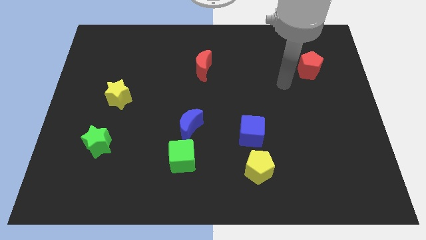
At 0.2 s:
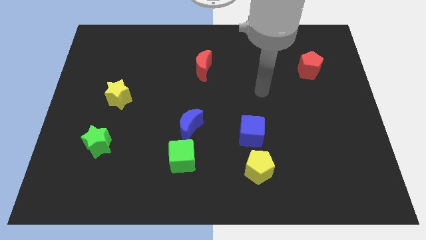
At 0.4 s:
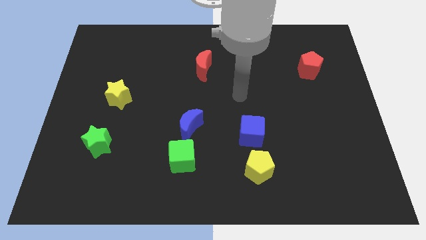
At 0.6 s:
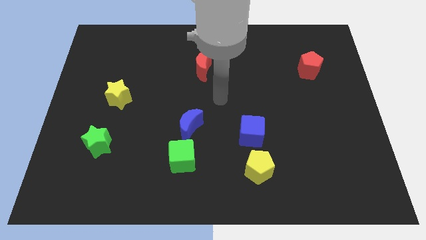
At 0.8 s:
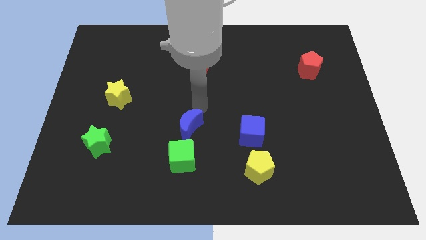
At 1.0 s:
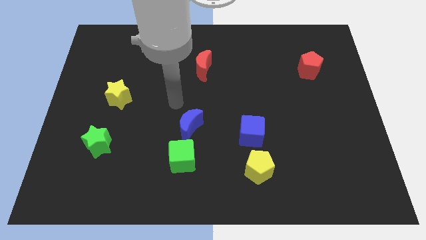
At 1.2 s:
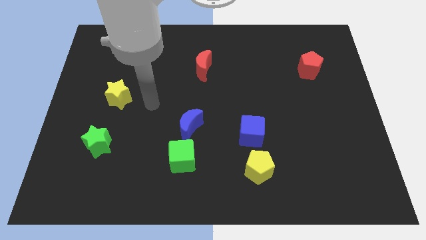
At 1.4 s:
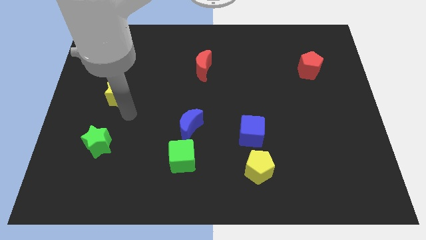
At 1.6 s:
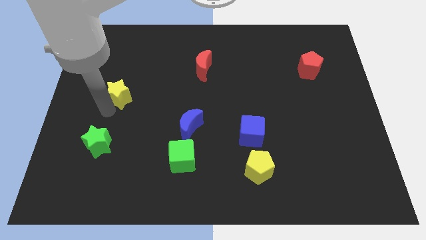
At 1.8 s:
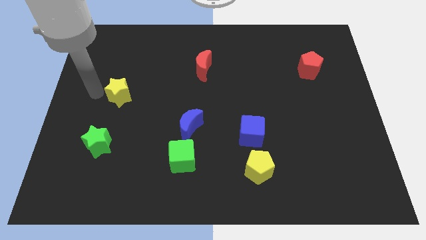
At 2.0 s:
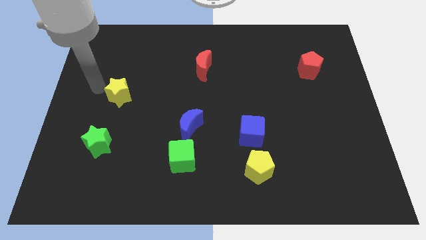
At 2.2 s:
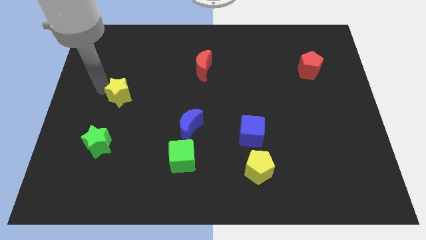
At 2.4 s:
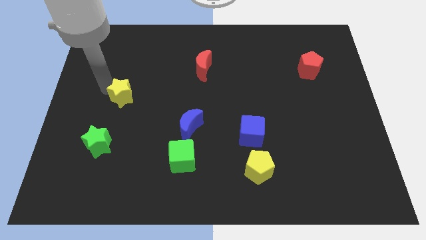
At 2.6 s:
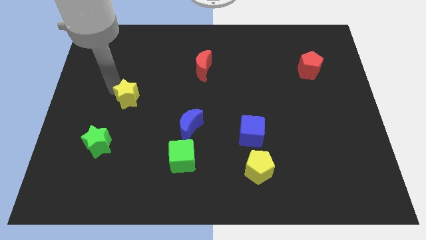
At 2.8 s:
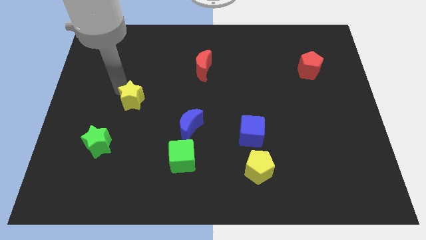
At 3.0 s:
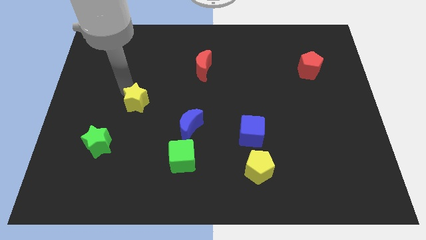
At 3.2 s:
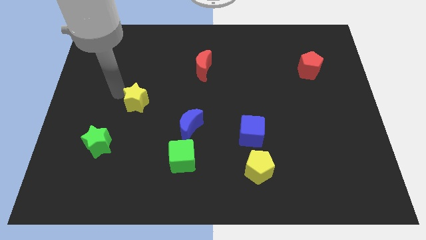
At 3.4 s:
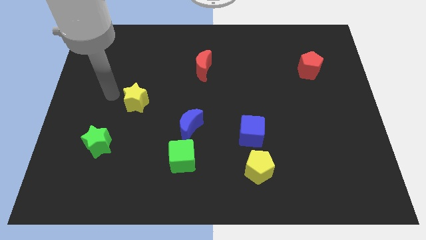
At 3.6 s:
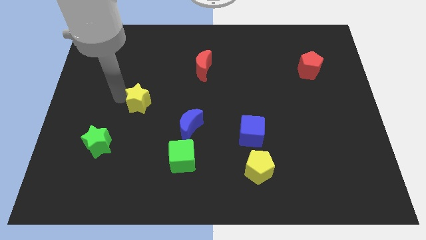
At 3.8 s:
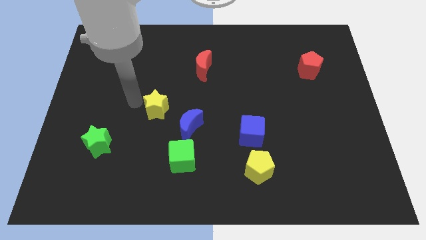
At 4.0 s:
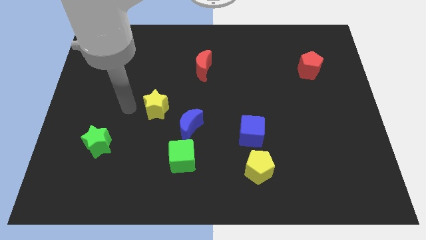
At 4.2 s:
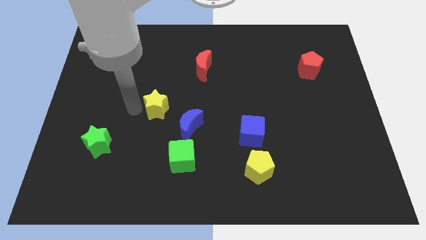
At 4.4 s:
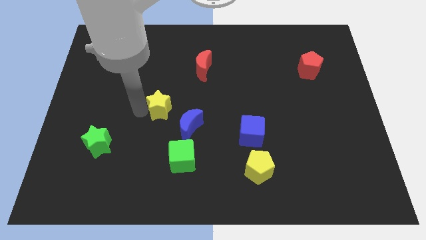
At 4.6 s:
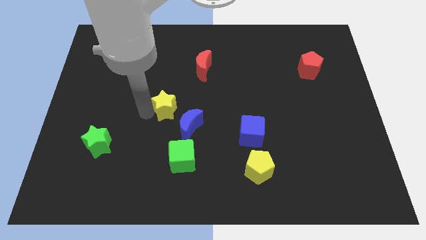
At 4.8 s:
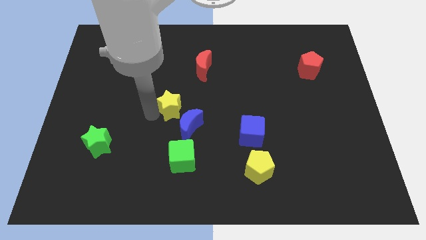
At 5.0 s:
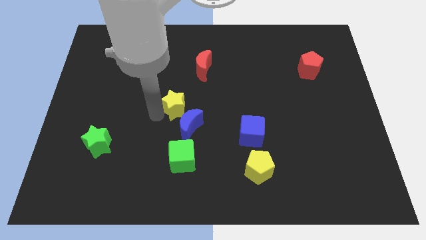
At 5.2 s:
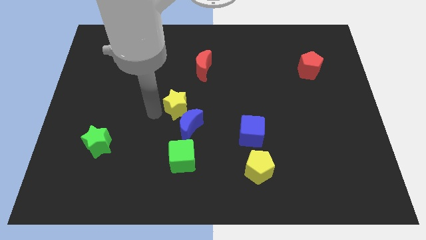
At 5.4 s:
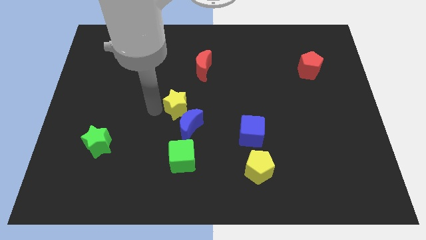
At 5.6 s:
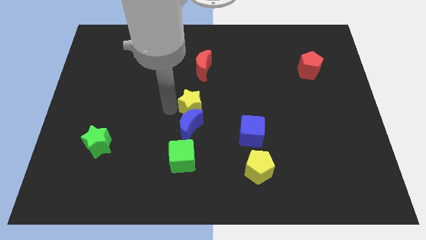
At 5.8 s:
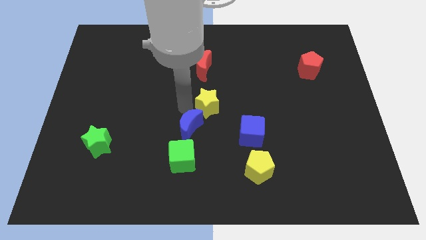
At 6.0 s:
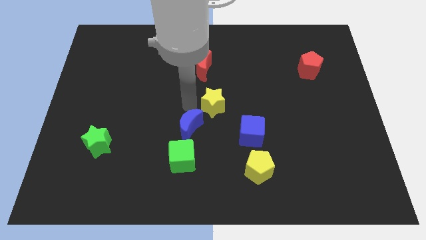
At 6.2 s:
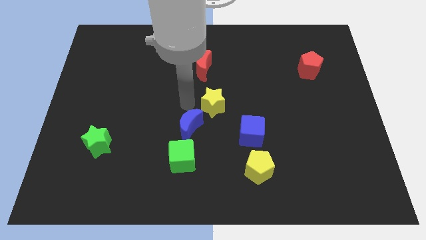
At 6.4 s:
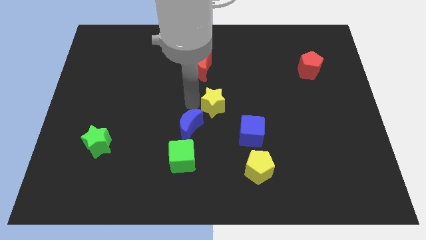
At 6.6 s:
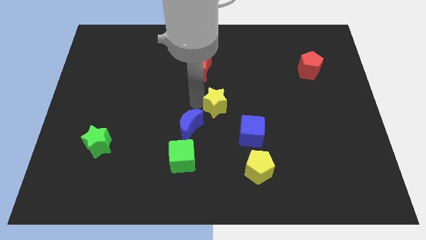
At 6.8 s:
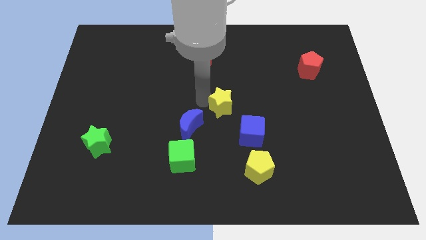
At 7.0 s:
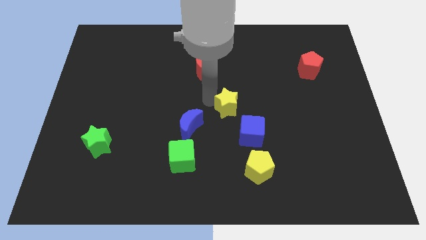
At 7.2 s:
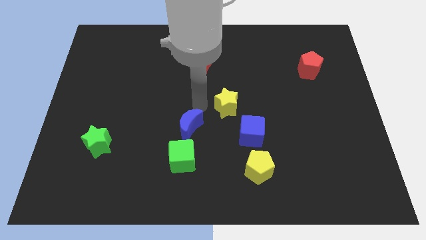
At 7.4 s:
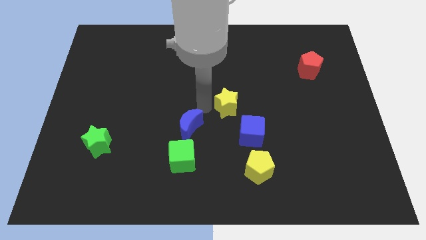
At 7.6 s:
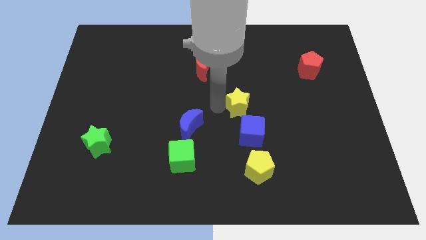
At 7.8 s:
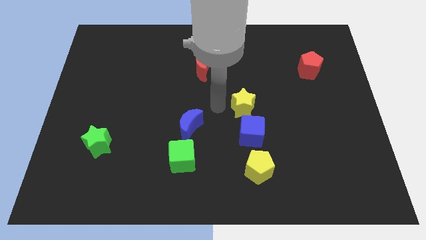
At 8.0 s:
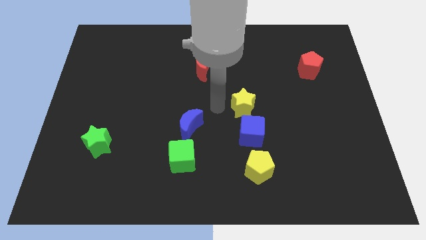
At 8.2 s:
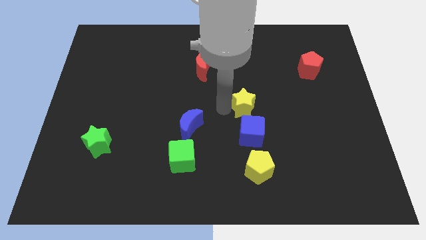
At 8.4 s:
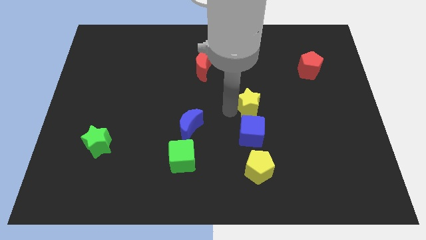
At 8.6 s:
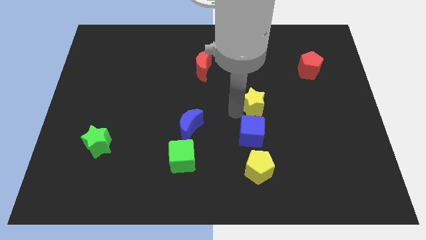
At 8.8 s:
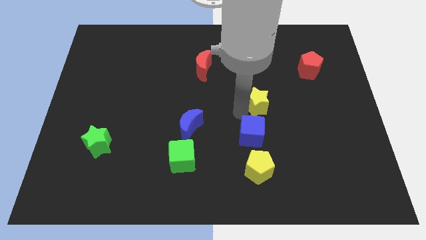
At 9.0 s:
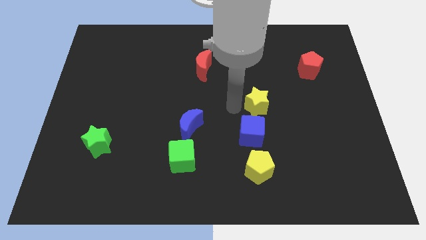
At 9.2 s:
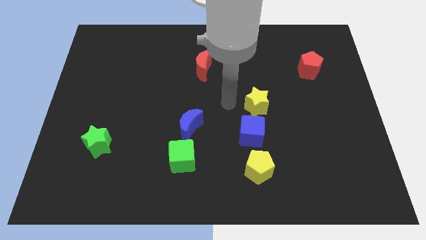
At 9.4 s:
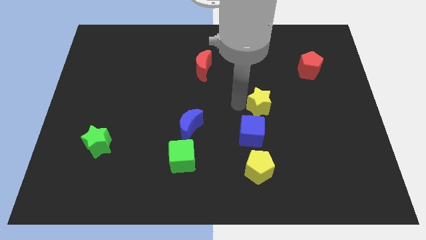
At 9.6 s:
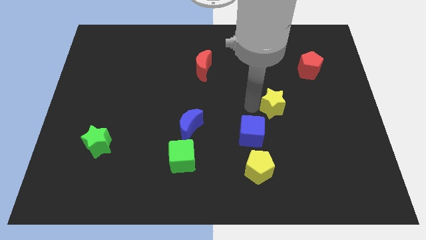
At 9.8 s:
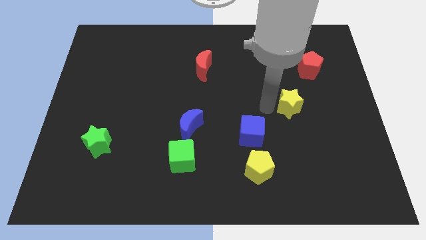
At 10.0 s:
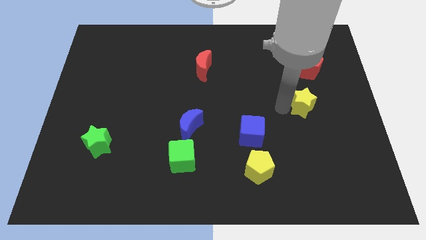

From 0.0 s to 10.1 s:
push the yellow star below the red pentagon

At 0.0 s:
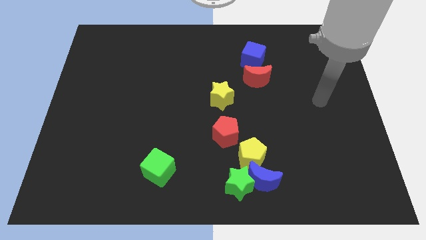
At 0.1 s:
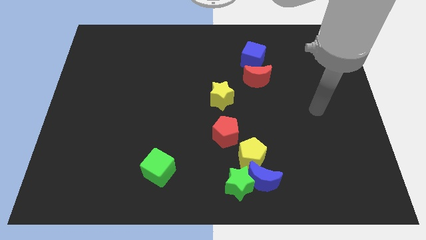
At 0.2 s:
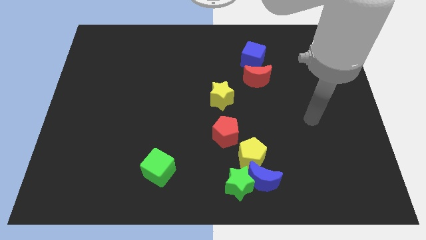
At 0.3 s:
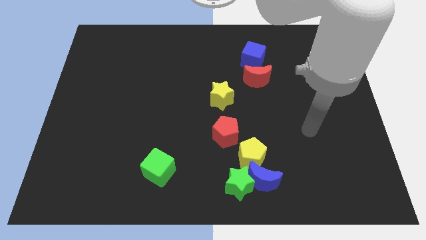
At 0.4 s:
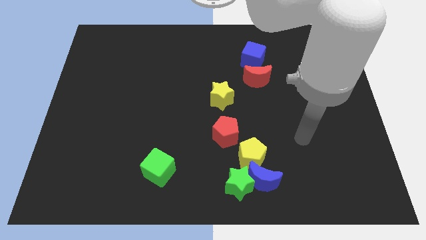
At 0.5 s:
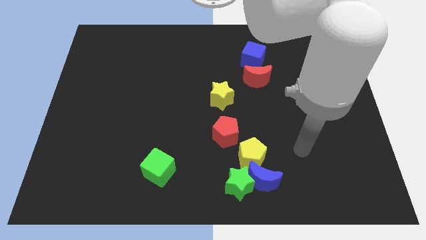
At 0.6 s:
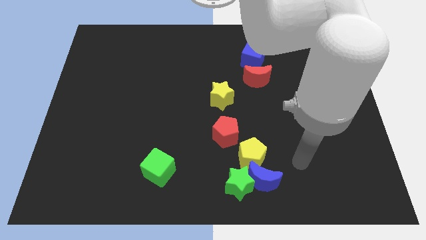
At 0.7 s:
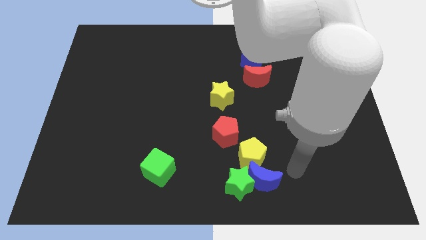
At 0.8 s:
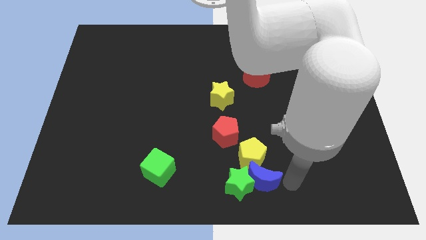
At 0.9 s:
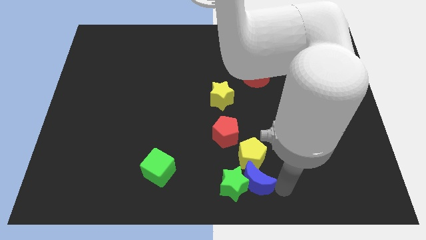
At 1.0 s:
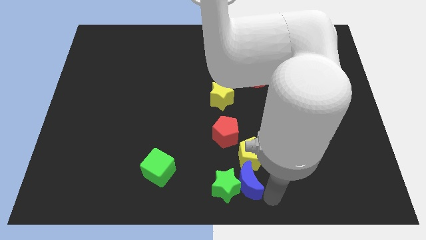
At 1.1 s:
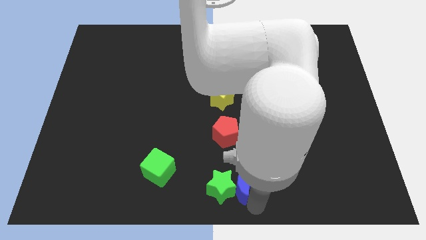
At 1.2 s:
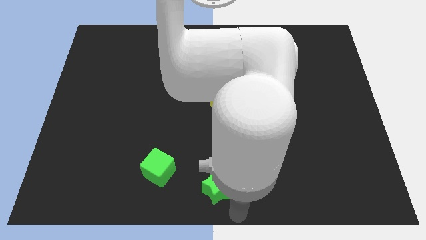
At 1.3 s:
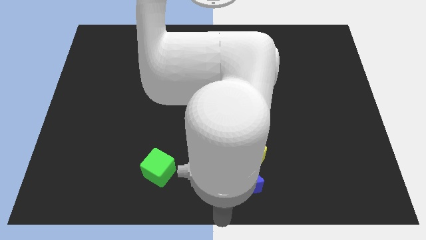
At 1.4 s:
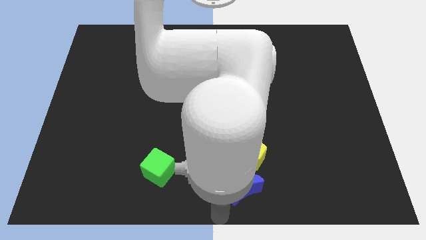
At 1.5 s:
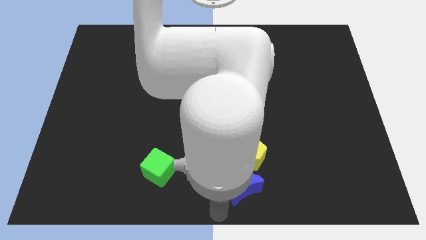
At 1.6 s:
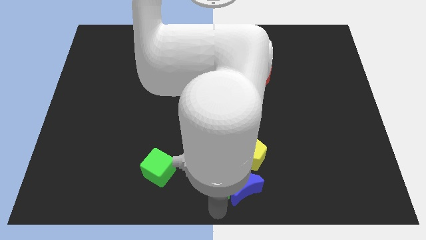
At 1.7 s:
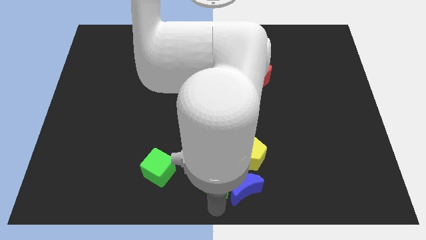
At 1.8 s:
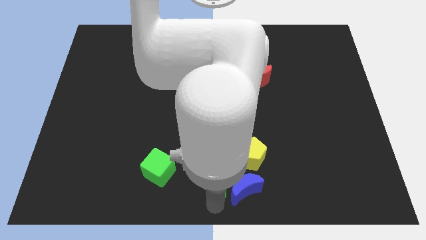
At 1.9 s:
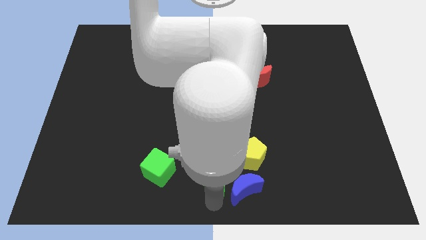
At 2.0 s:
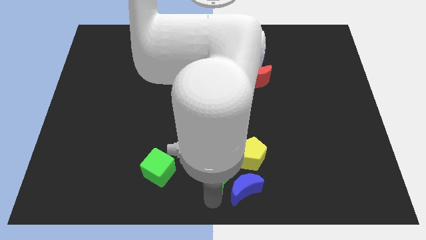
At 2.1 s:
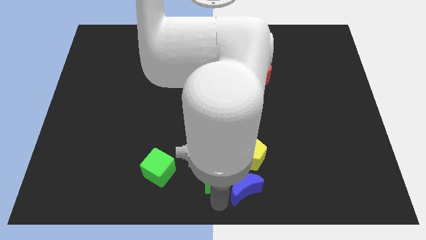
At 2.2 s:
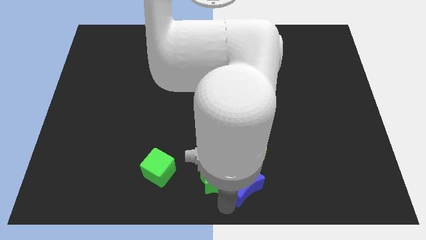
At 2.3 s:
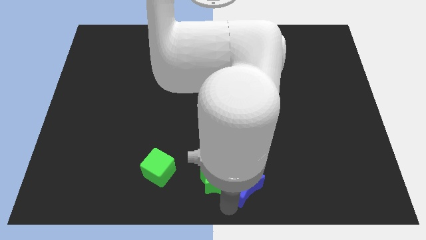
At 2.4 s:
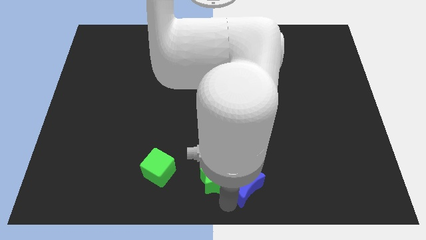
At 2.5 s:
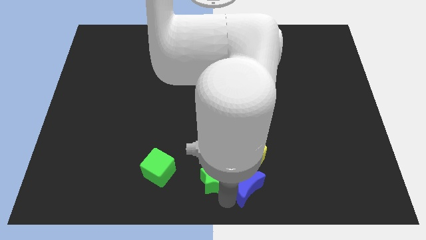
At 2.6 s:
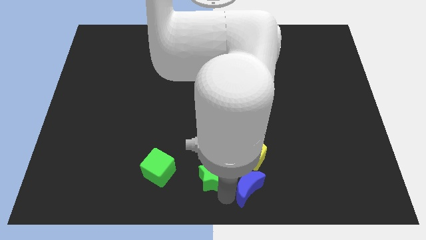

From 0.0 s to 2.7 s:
move the green star to the left of the yellow pentagon
